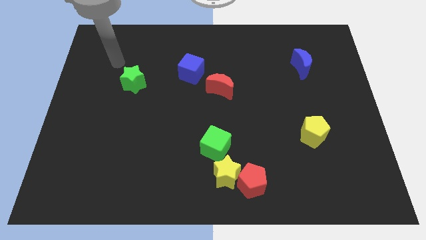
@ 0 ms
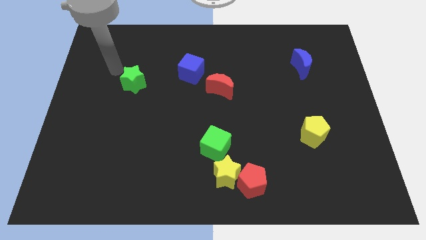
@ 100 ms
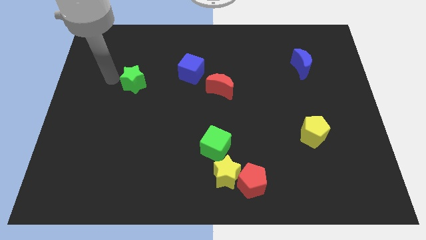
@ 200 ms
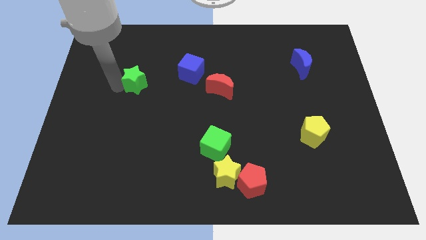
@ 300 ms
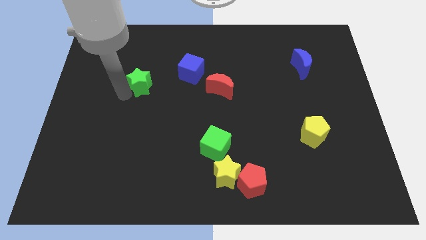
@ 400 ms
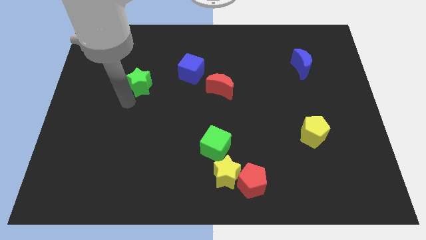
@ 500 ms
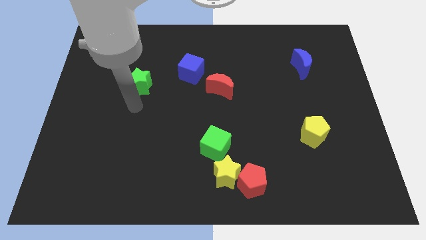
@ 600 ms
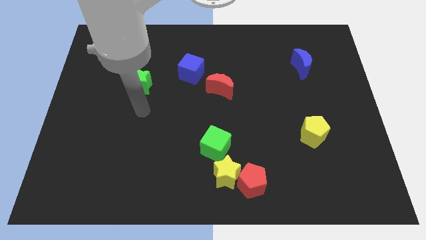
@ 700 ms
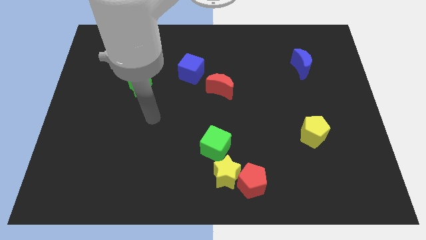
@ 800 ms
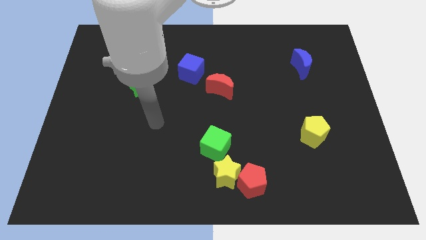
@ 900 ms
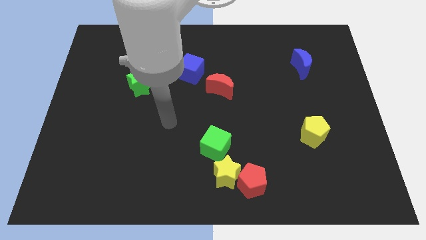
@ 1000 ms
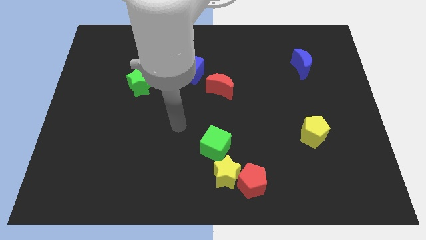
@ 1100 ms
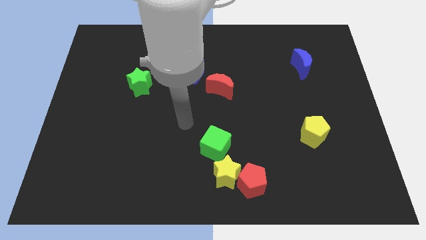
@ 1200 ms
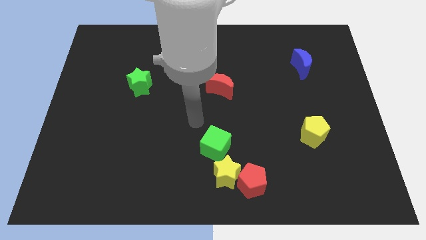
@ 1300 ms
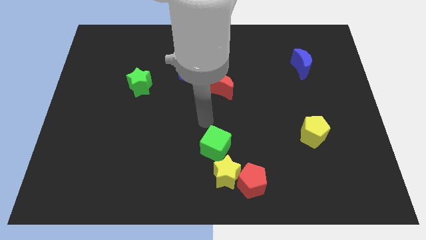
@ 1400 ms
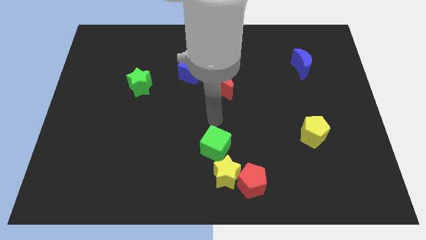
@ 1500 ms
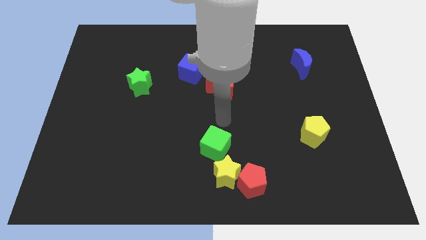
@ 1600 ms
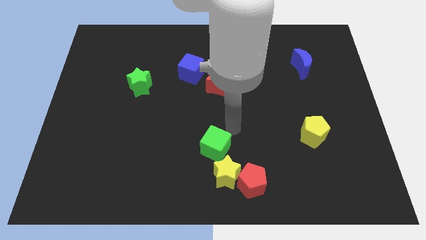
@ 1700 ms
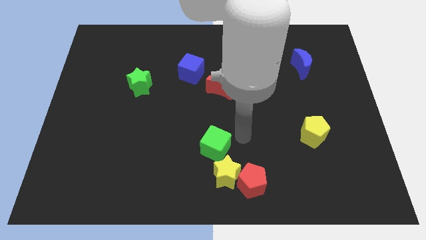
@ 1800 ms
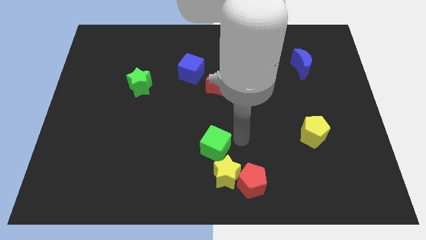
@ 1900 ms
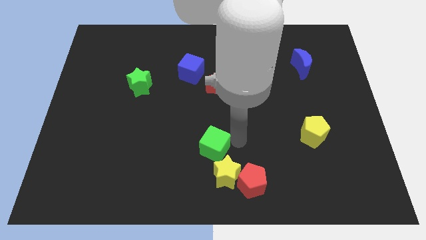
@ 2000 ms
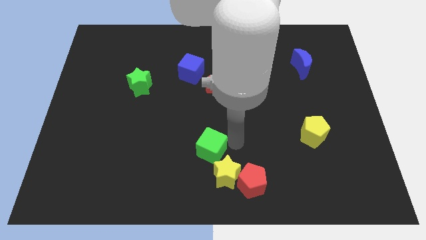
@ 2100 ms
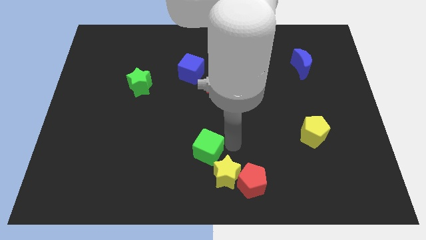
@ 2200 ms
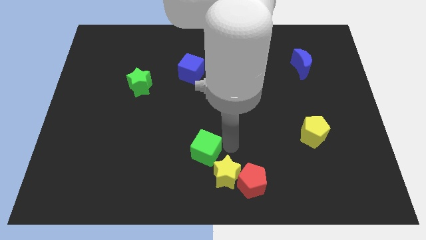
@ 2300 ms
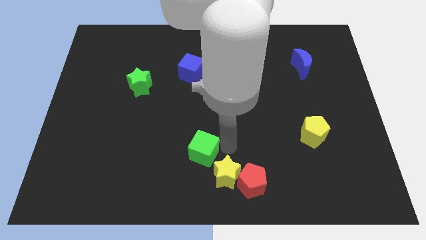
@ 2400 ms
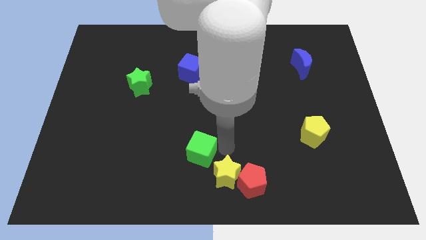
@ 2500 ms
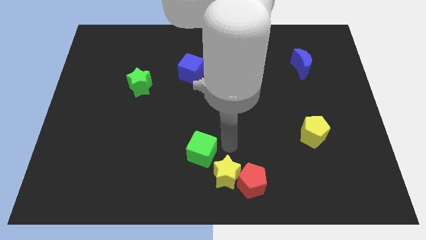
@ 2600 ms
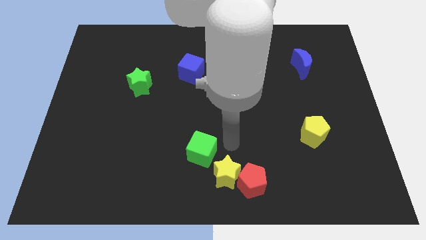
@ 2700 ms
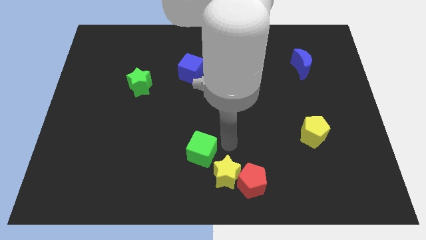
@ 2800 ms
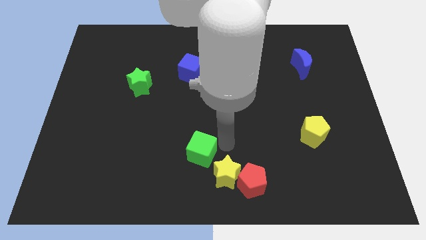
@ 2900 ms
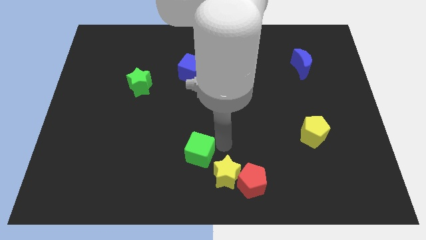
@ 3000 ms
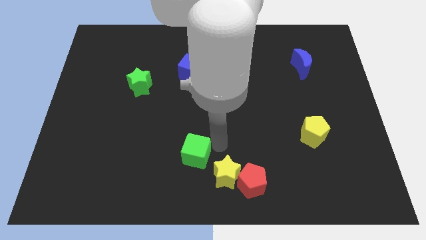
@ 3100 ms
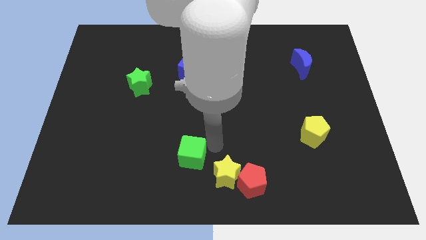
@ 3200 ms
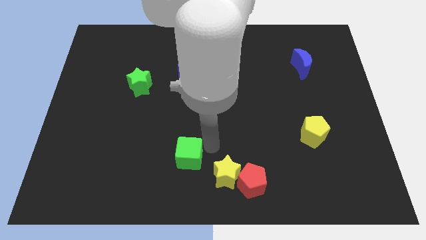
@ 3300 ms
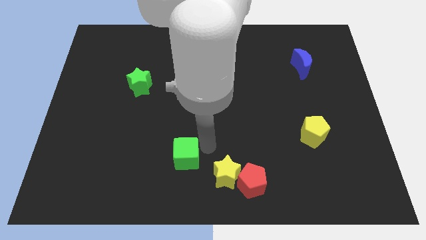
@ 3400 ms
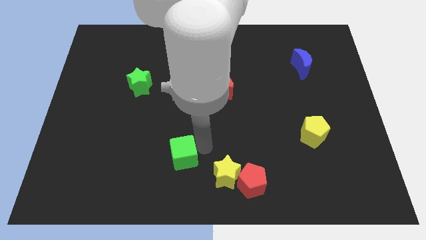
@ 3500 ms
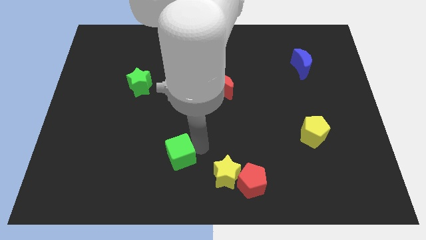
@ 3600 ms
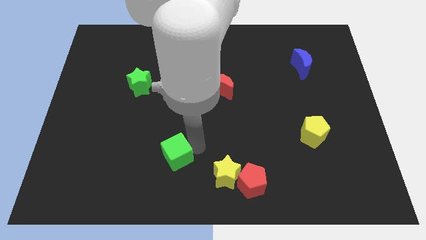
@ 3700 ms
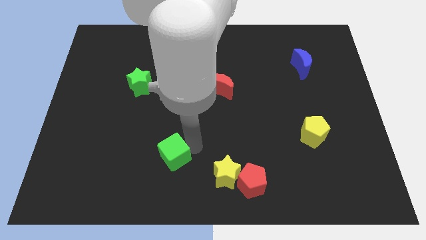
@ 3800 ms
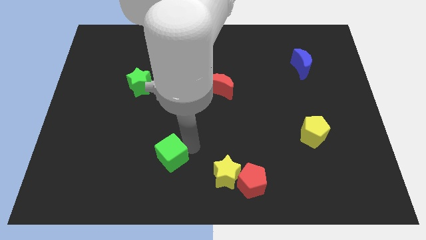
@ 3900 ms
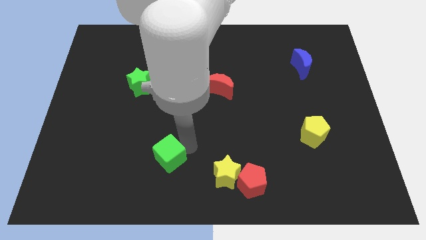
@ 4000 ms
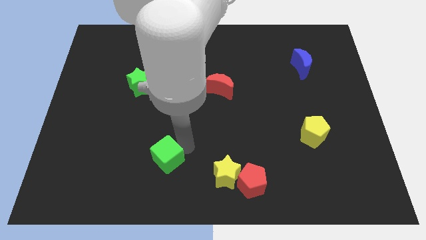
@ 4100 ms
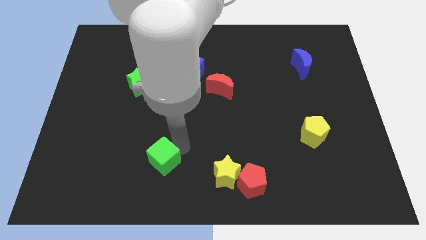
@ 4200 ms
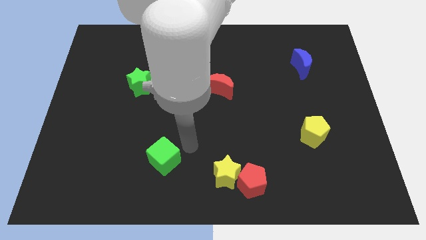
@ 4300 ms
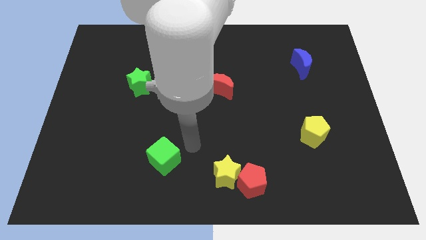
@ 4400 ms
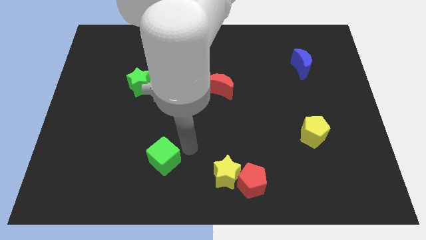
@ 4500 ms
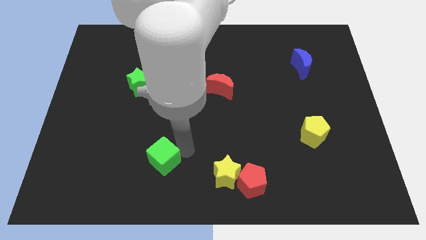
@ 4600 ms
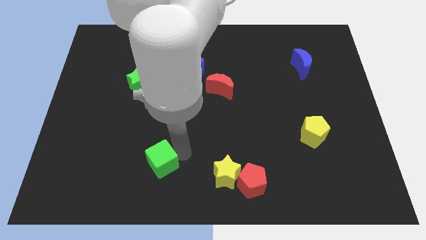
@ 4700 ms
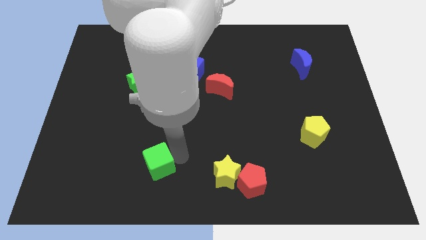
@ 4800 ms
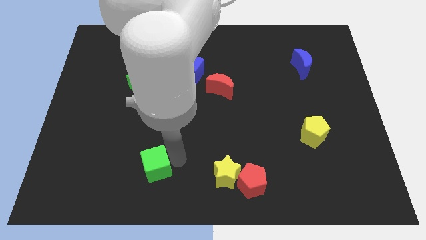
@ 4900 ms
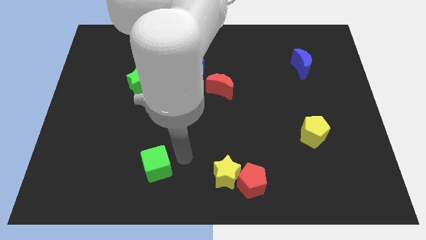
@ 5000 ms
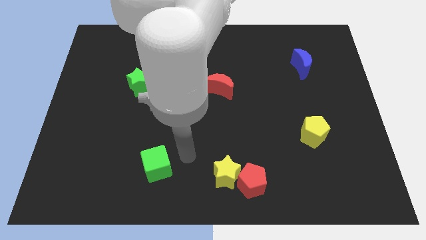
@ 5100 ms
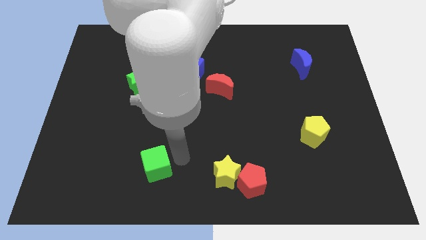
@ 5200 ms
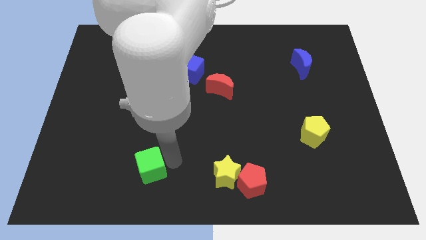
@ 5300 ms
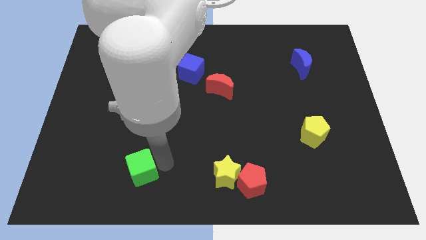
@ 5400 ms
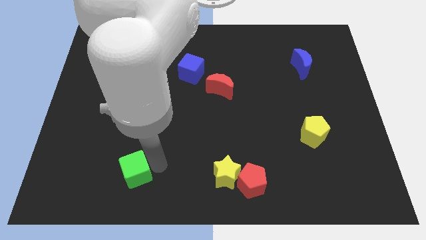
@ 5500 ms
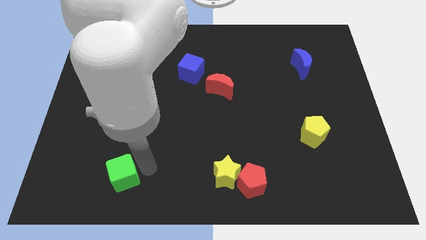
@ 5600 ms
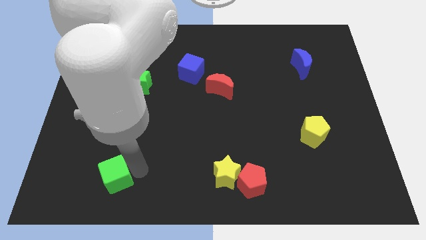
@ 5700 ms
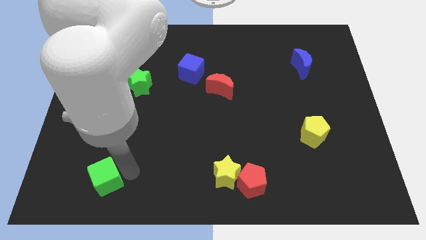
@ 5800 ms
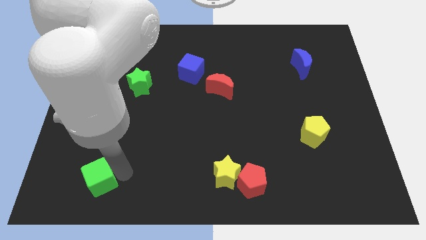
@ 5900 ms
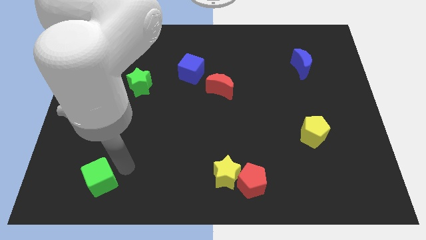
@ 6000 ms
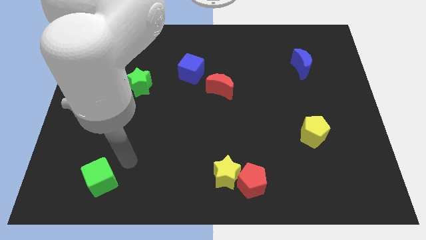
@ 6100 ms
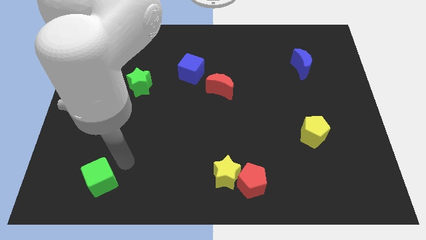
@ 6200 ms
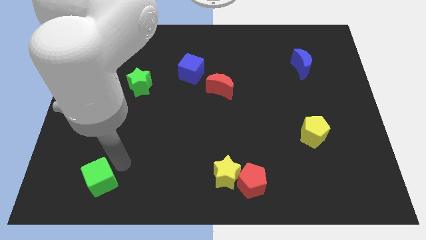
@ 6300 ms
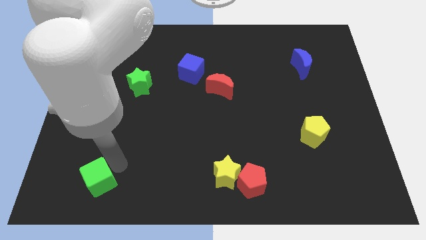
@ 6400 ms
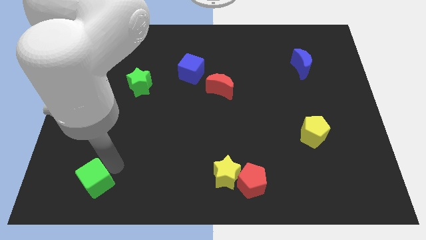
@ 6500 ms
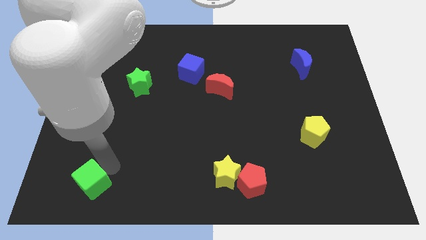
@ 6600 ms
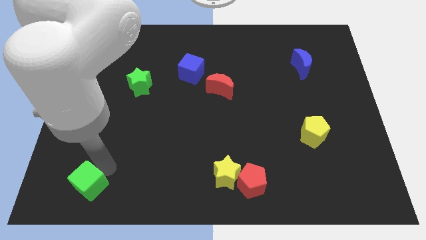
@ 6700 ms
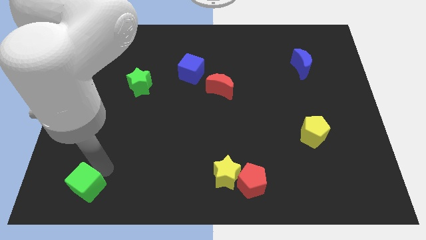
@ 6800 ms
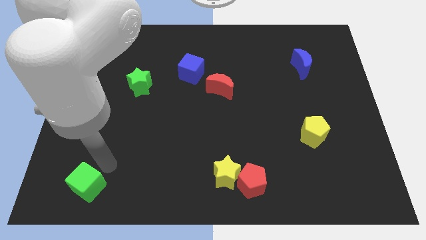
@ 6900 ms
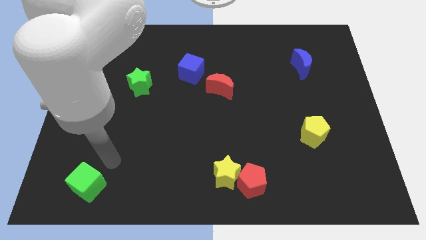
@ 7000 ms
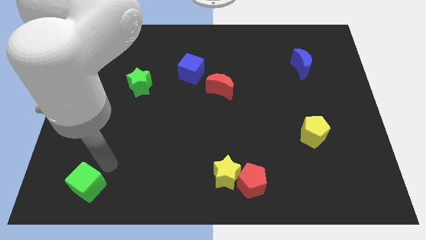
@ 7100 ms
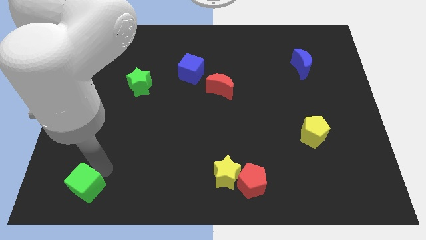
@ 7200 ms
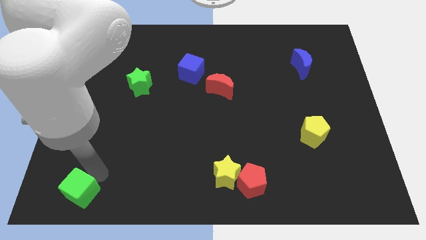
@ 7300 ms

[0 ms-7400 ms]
slide the green cube to the bottom left corner
